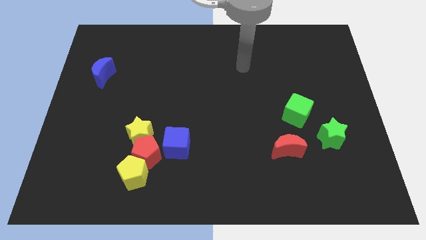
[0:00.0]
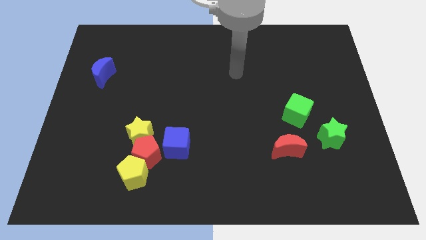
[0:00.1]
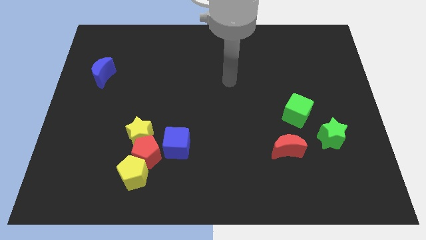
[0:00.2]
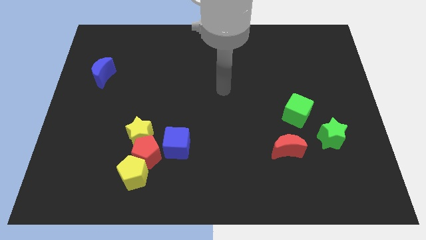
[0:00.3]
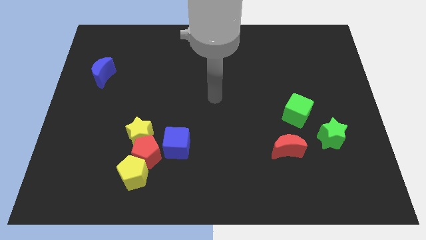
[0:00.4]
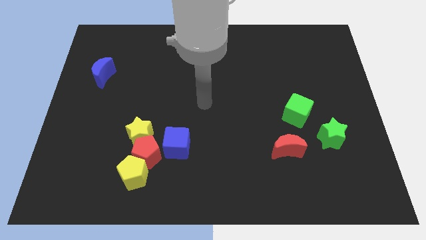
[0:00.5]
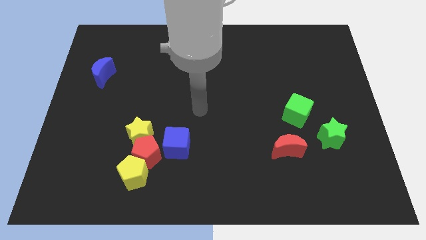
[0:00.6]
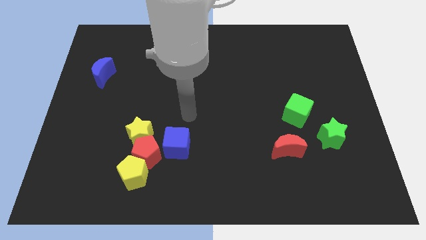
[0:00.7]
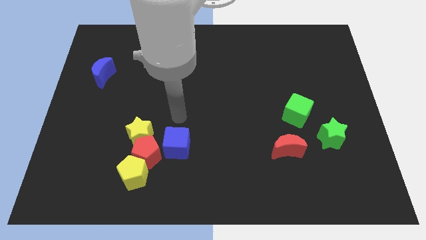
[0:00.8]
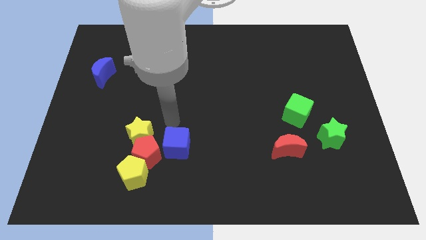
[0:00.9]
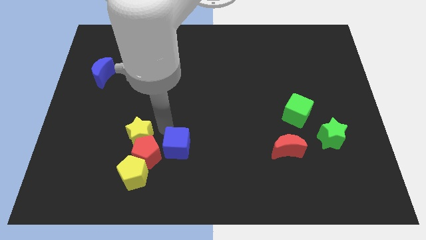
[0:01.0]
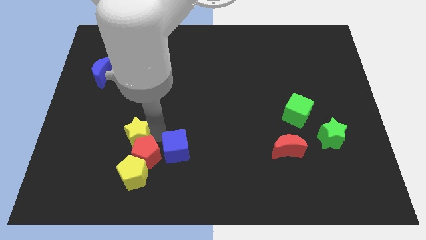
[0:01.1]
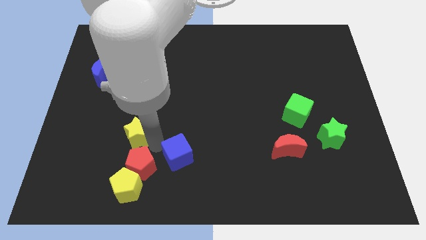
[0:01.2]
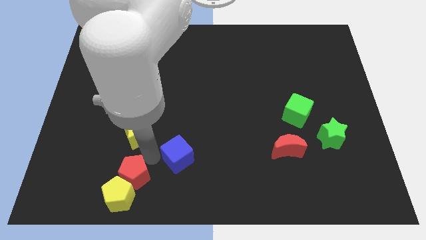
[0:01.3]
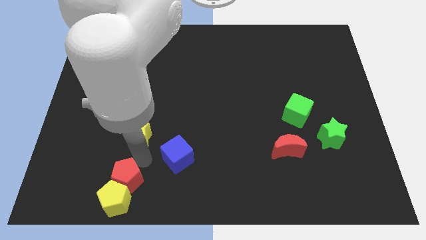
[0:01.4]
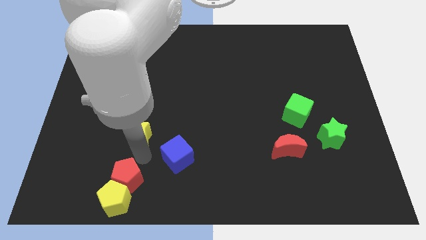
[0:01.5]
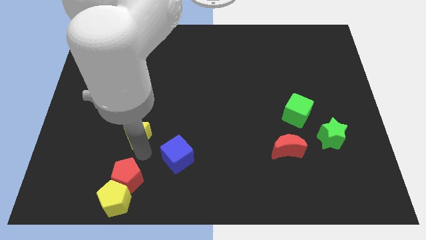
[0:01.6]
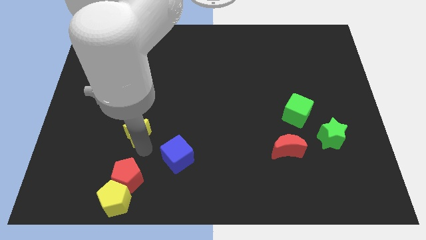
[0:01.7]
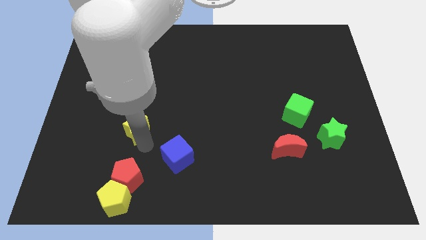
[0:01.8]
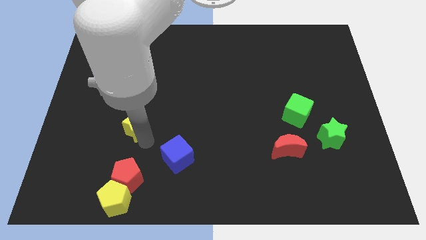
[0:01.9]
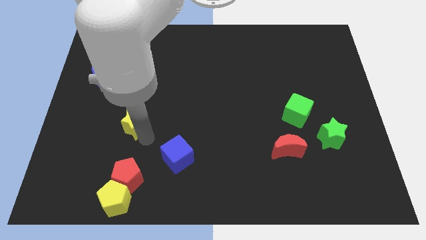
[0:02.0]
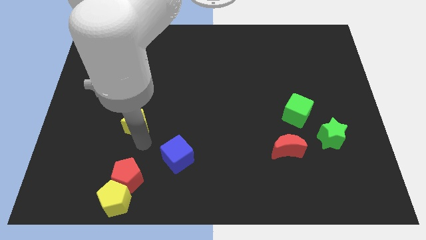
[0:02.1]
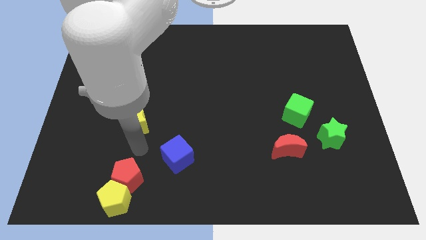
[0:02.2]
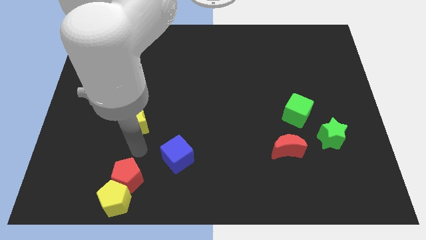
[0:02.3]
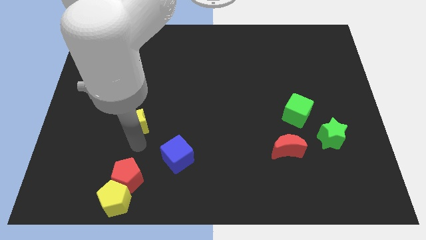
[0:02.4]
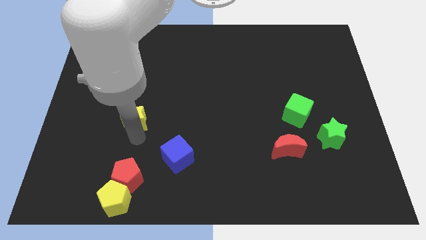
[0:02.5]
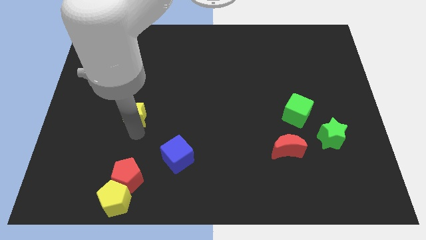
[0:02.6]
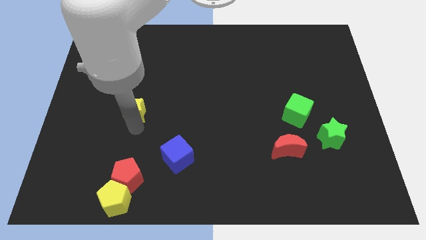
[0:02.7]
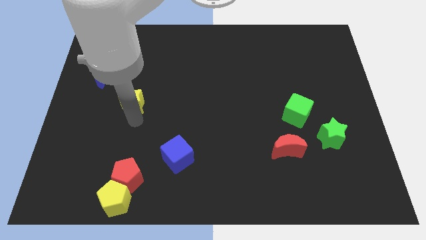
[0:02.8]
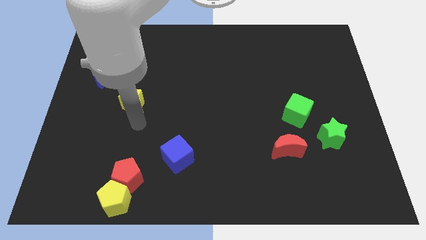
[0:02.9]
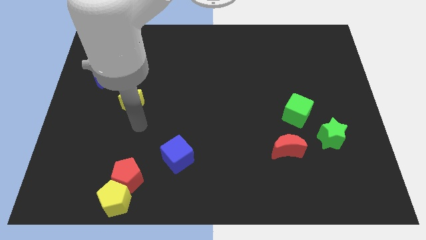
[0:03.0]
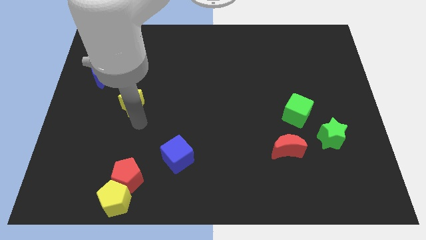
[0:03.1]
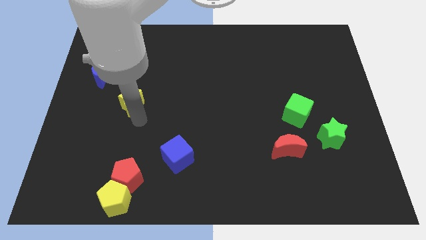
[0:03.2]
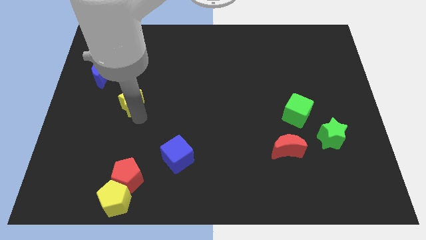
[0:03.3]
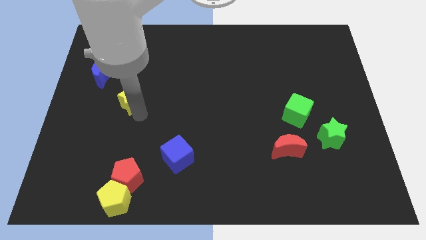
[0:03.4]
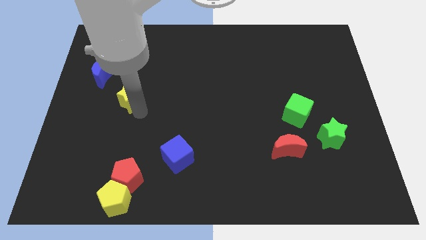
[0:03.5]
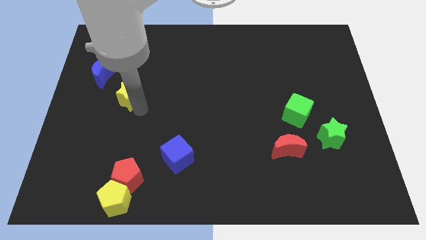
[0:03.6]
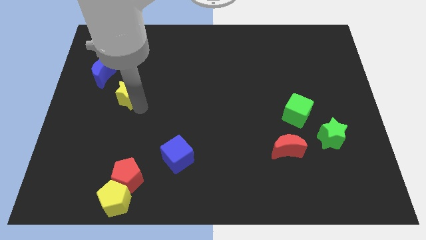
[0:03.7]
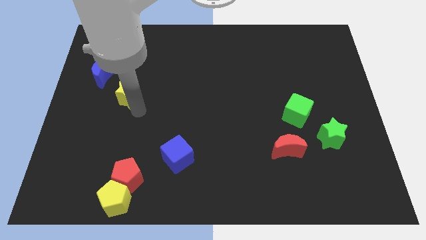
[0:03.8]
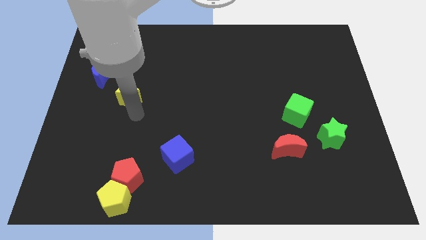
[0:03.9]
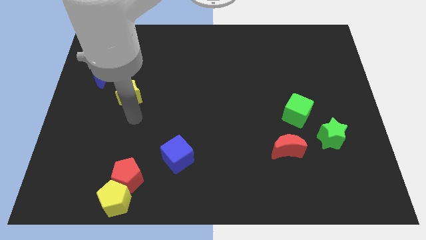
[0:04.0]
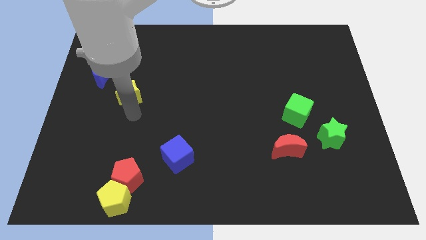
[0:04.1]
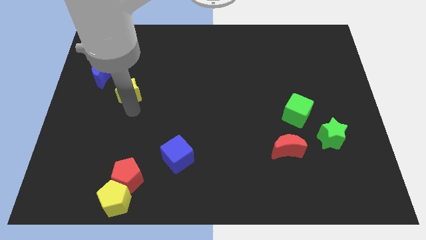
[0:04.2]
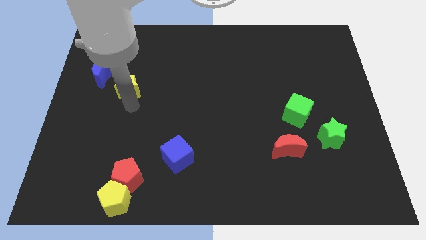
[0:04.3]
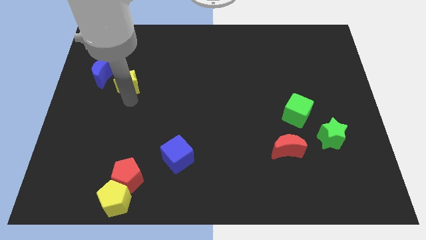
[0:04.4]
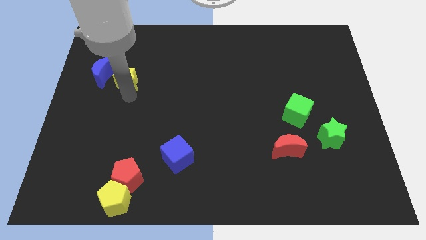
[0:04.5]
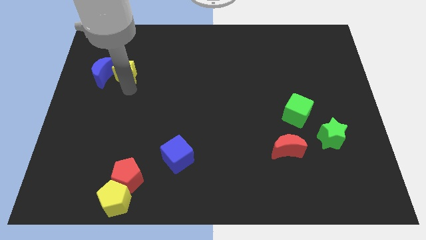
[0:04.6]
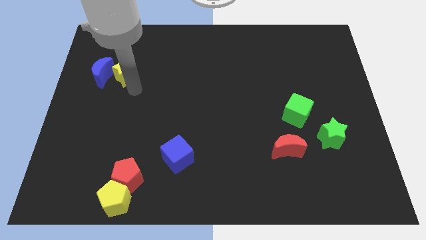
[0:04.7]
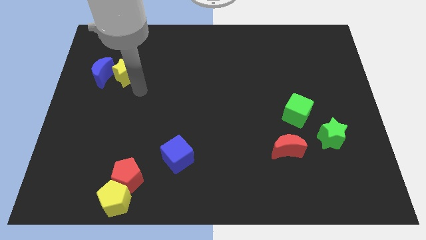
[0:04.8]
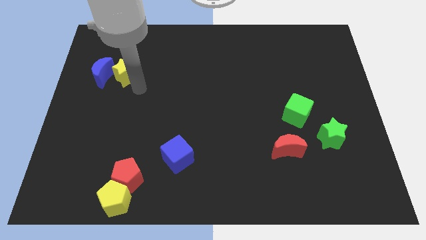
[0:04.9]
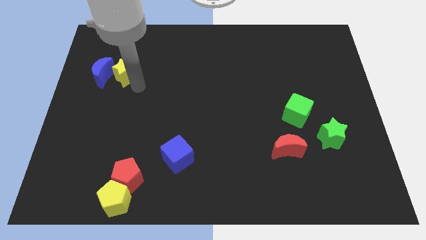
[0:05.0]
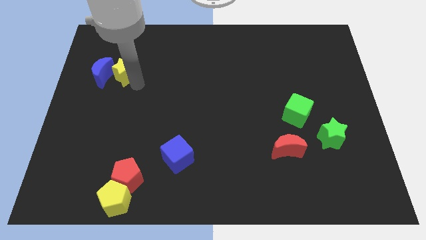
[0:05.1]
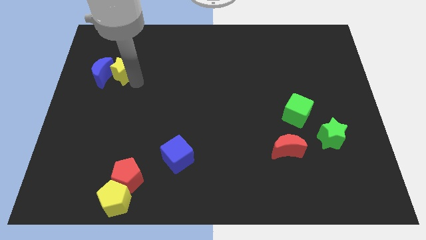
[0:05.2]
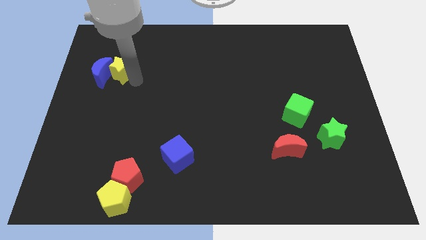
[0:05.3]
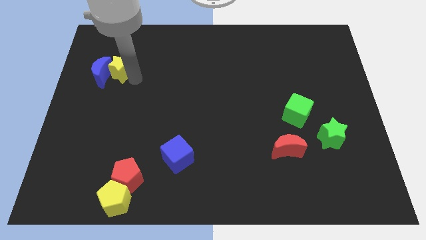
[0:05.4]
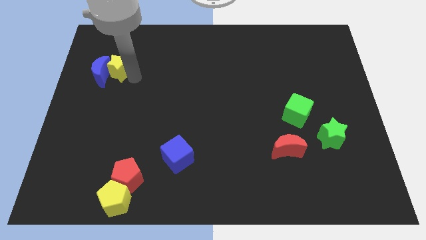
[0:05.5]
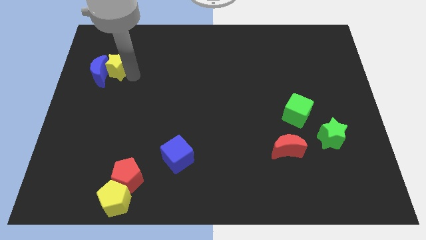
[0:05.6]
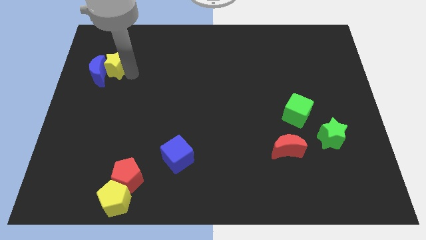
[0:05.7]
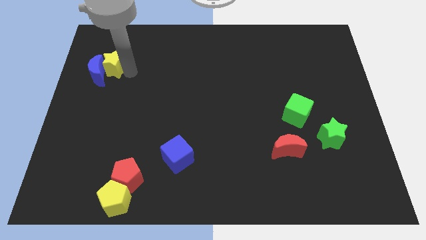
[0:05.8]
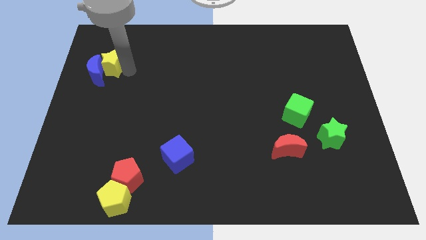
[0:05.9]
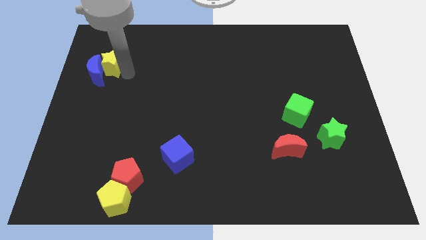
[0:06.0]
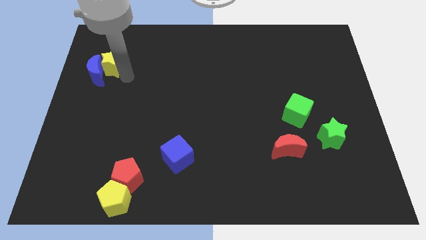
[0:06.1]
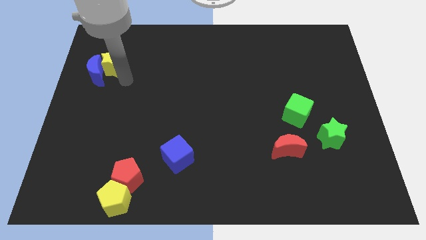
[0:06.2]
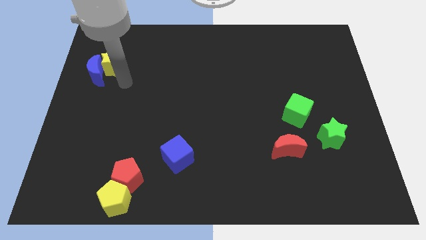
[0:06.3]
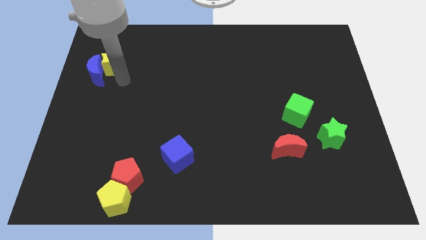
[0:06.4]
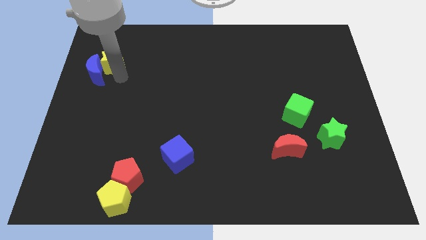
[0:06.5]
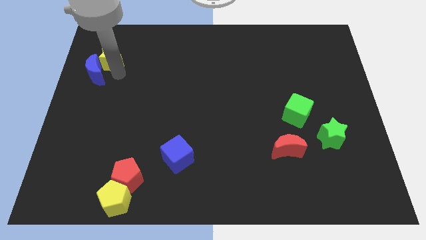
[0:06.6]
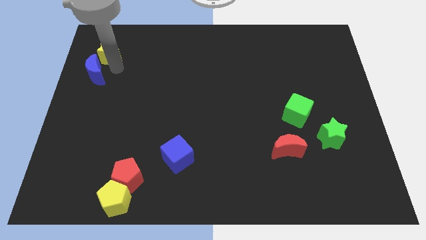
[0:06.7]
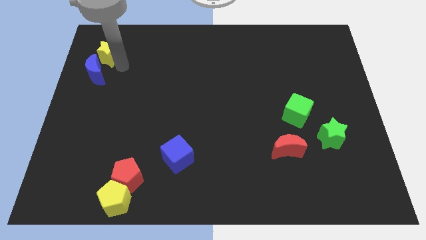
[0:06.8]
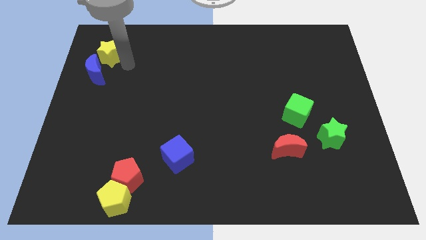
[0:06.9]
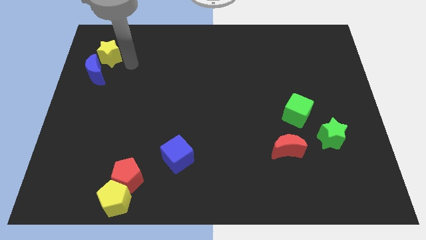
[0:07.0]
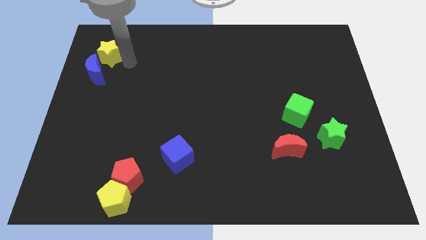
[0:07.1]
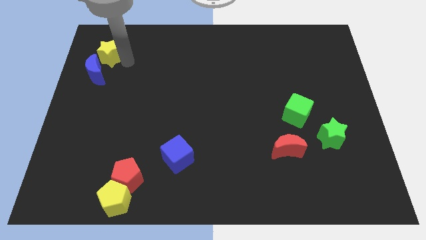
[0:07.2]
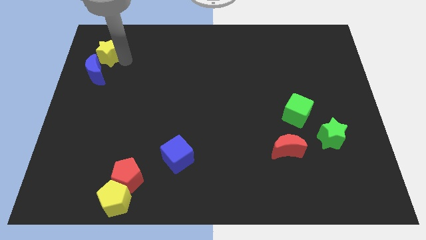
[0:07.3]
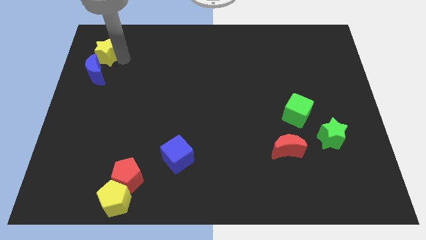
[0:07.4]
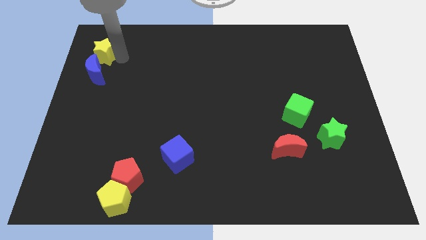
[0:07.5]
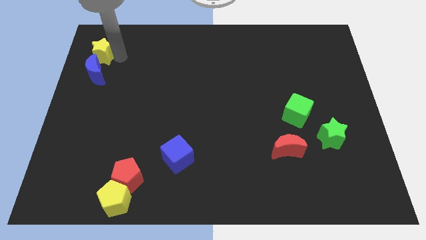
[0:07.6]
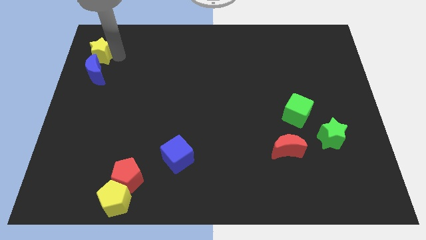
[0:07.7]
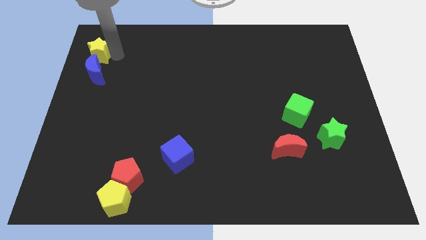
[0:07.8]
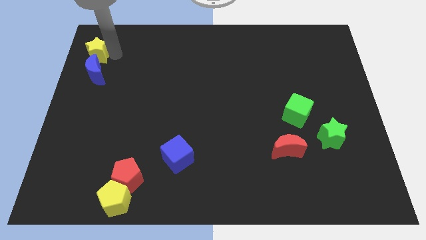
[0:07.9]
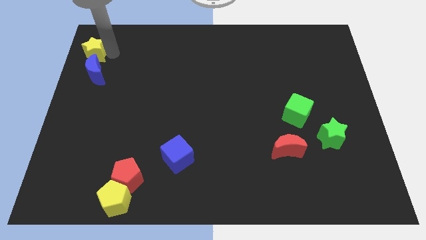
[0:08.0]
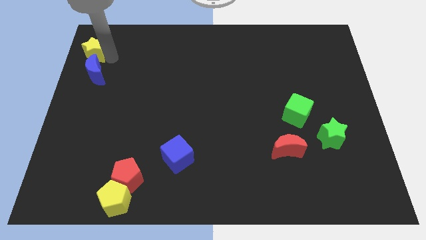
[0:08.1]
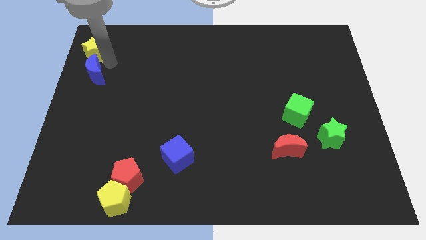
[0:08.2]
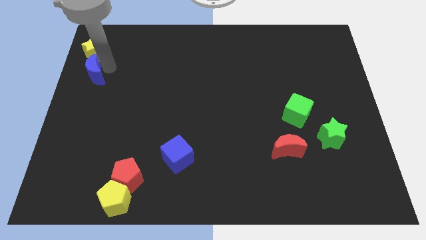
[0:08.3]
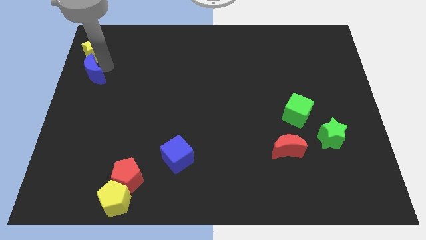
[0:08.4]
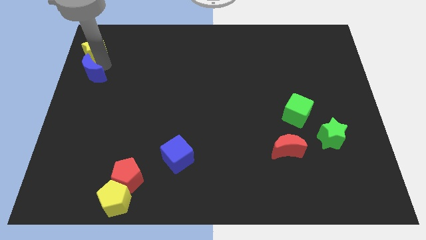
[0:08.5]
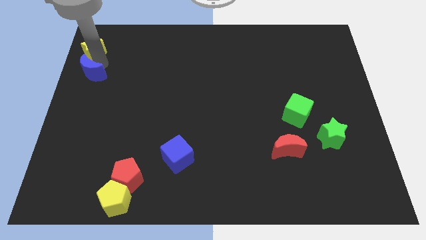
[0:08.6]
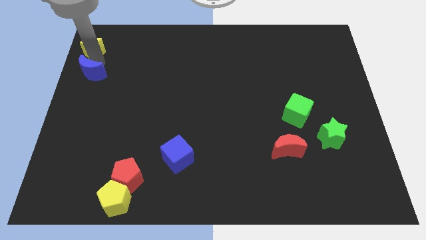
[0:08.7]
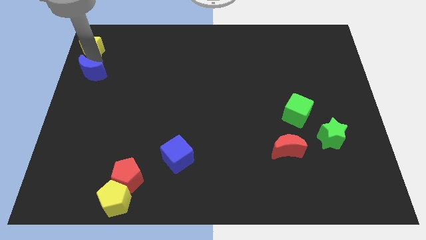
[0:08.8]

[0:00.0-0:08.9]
push the yellow star to the top left of the board
